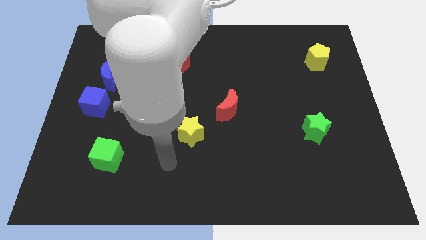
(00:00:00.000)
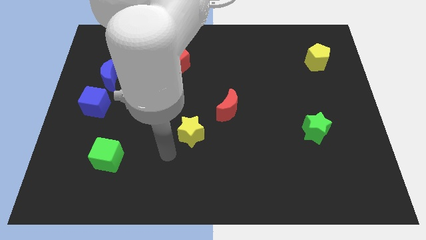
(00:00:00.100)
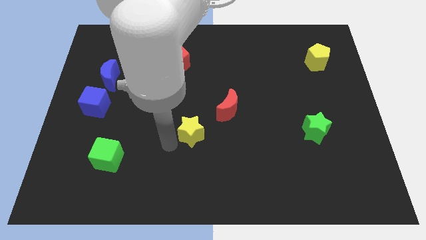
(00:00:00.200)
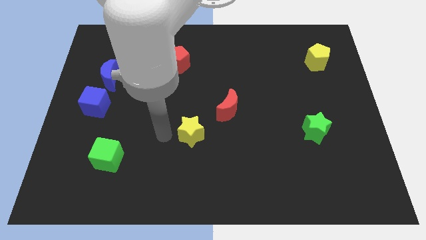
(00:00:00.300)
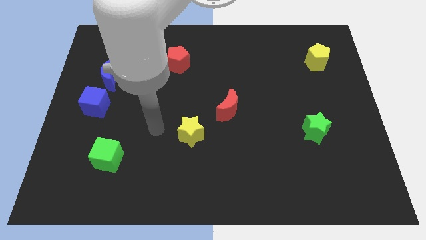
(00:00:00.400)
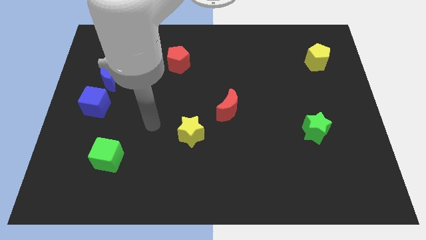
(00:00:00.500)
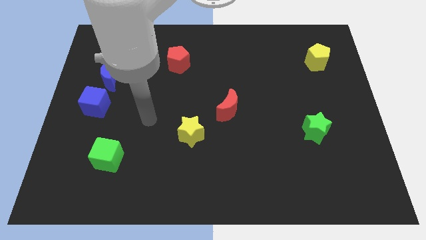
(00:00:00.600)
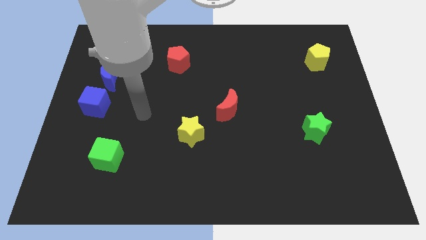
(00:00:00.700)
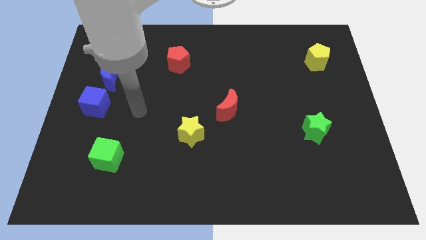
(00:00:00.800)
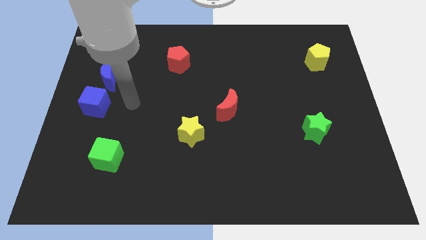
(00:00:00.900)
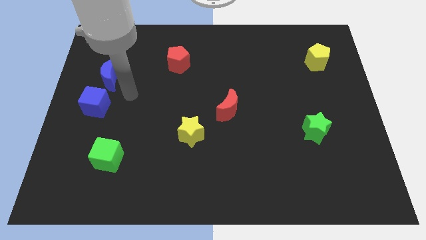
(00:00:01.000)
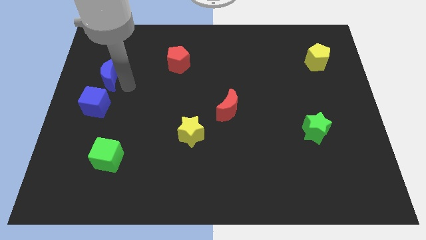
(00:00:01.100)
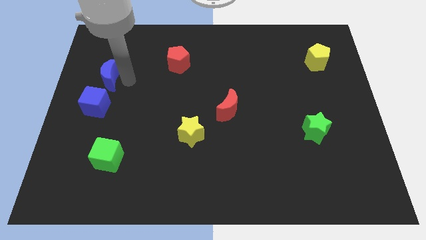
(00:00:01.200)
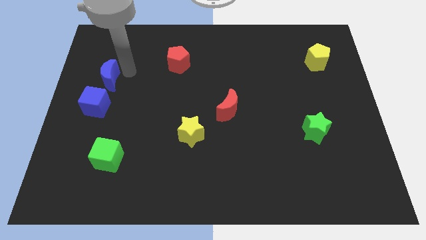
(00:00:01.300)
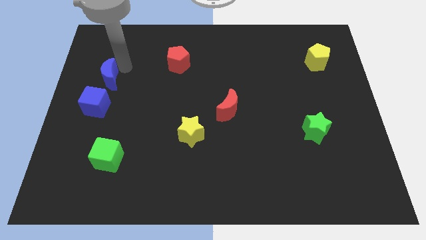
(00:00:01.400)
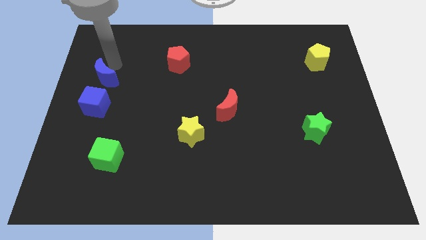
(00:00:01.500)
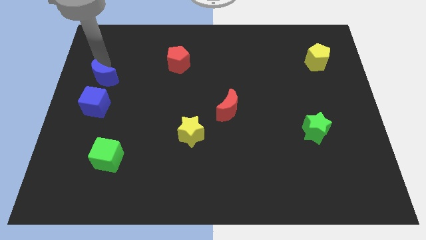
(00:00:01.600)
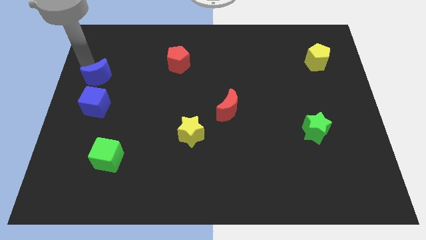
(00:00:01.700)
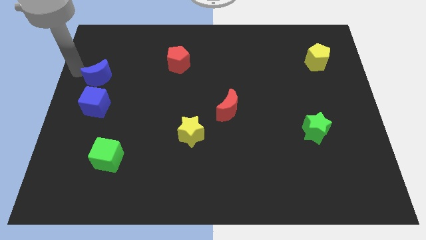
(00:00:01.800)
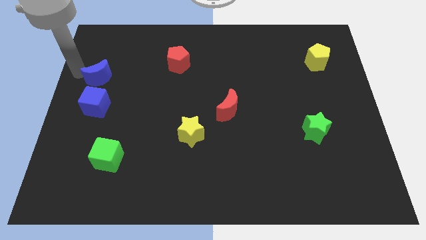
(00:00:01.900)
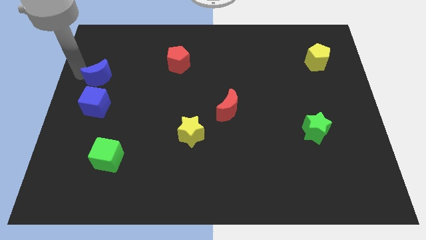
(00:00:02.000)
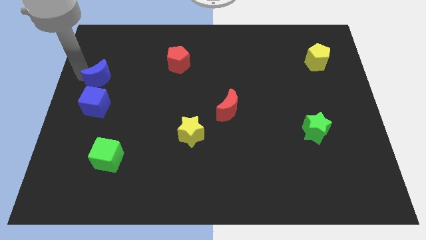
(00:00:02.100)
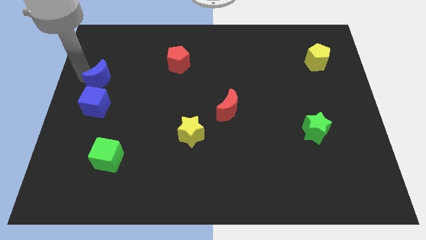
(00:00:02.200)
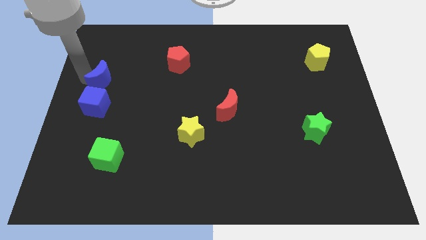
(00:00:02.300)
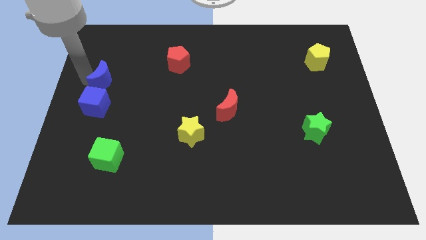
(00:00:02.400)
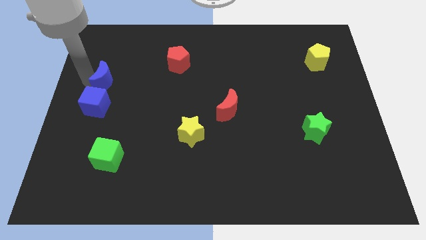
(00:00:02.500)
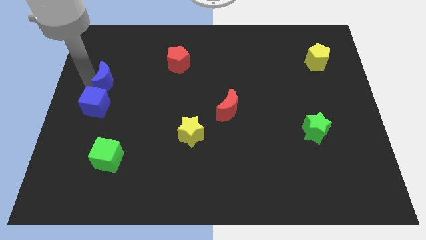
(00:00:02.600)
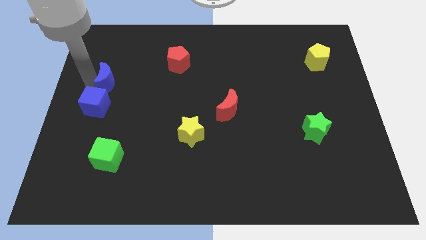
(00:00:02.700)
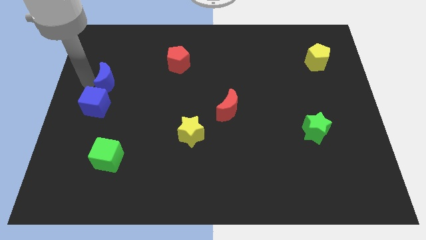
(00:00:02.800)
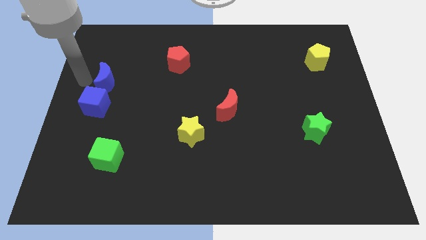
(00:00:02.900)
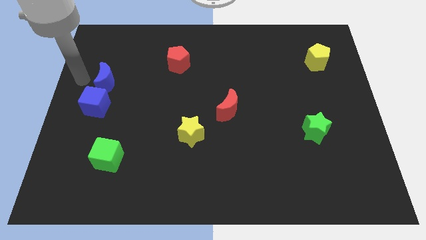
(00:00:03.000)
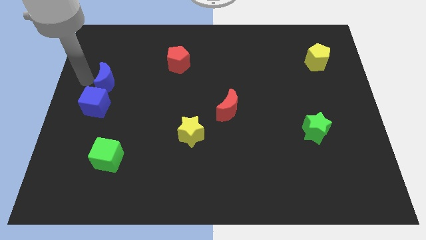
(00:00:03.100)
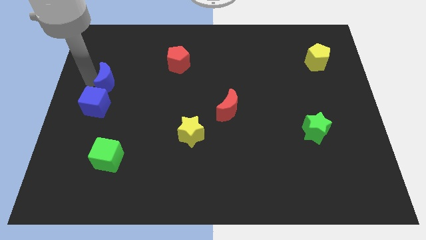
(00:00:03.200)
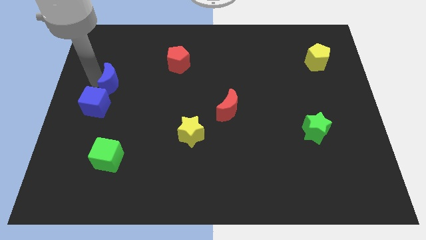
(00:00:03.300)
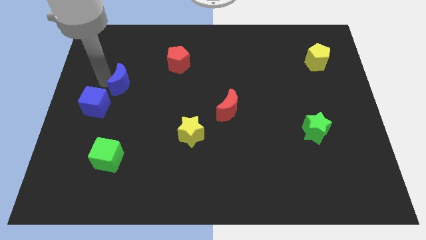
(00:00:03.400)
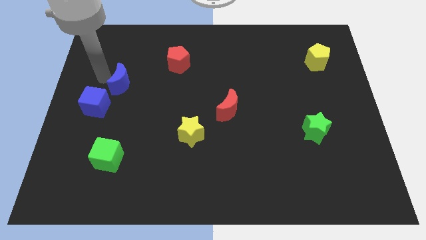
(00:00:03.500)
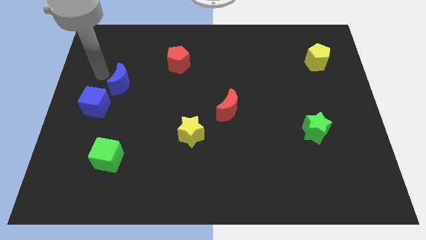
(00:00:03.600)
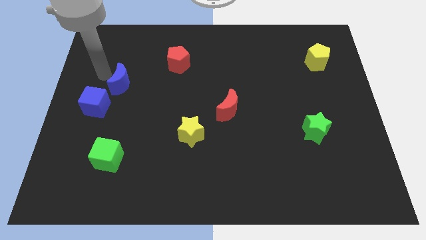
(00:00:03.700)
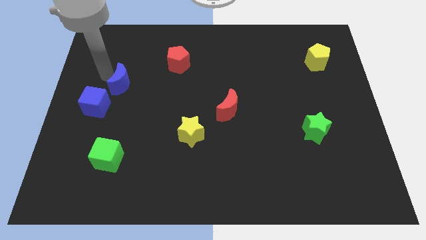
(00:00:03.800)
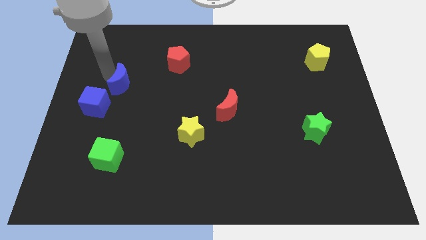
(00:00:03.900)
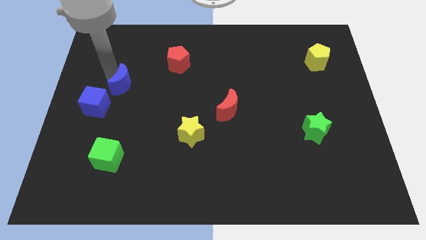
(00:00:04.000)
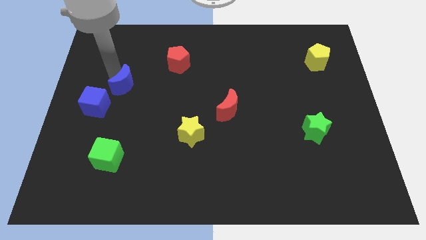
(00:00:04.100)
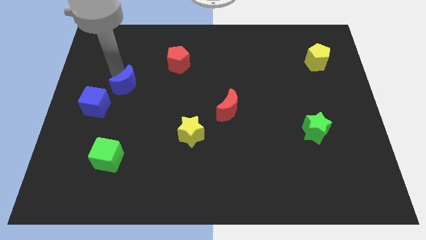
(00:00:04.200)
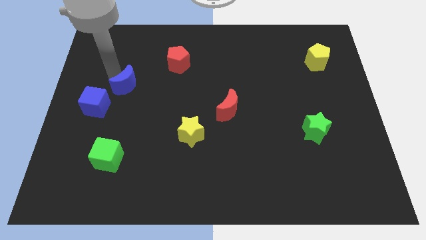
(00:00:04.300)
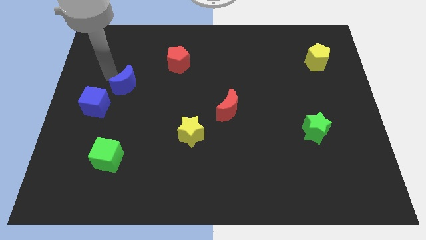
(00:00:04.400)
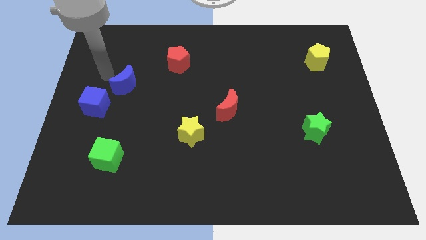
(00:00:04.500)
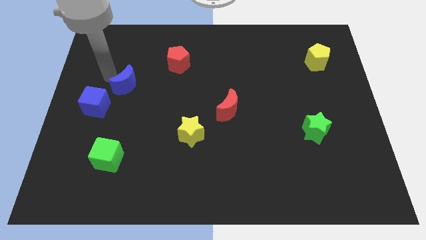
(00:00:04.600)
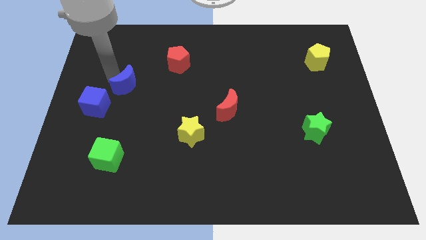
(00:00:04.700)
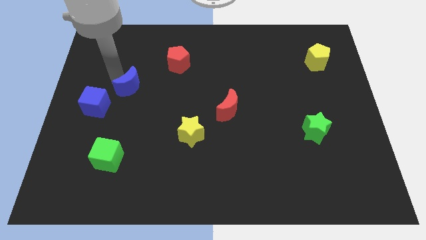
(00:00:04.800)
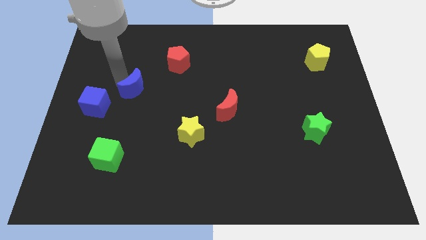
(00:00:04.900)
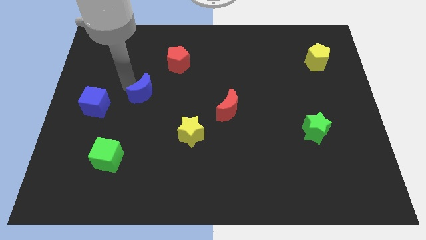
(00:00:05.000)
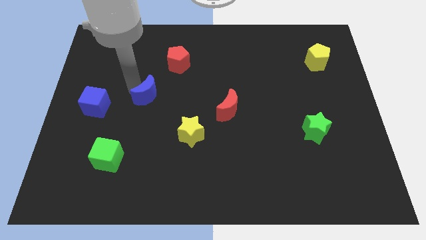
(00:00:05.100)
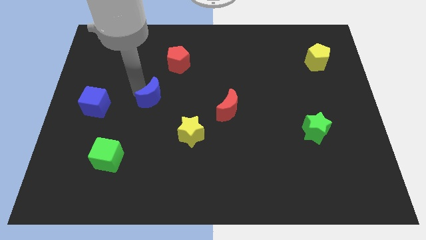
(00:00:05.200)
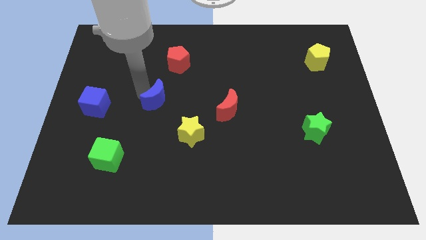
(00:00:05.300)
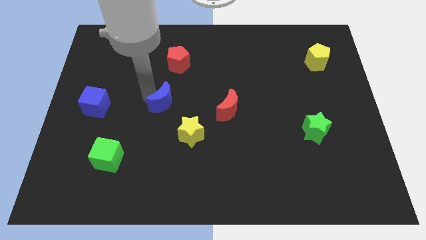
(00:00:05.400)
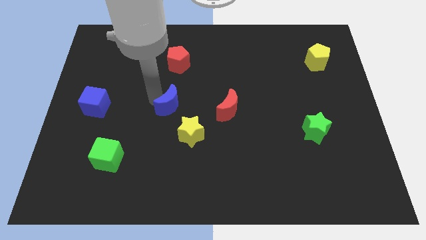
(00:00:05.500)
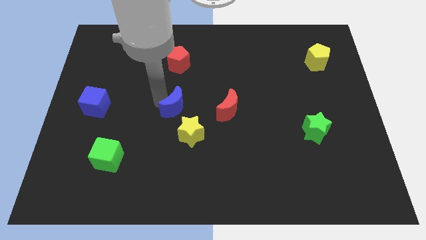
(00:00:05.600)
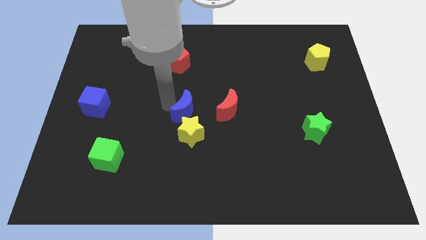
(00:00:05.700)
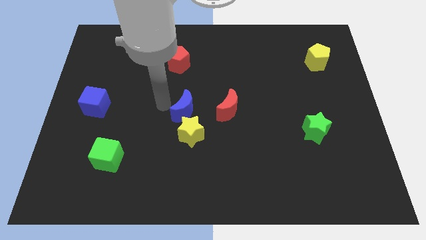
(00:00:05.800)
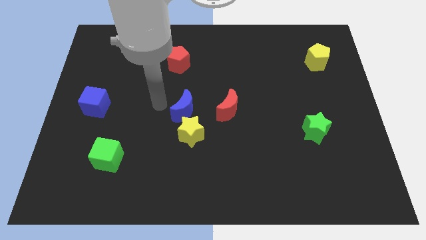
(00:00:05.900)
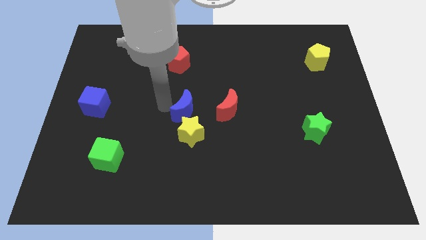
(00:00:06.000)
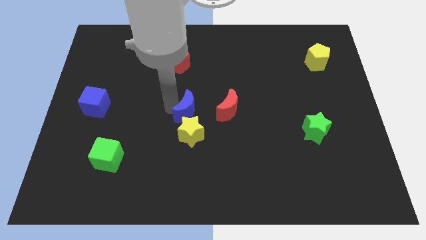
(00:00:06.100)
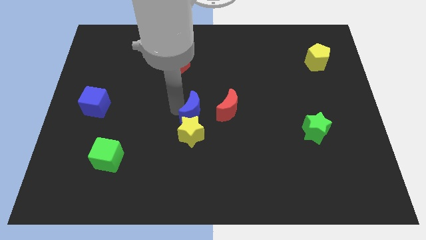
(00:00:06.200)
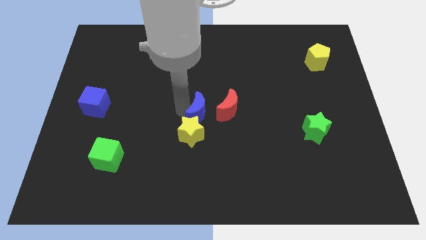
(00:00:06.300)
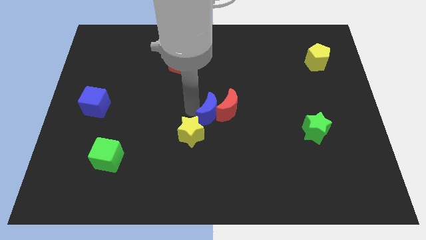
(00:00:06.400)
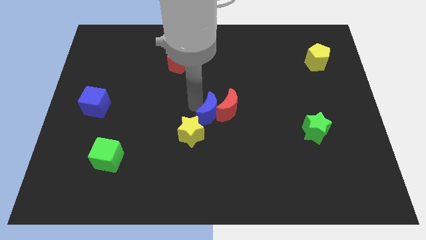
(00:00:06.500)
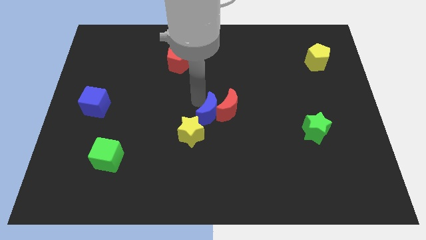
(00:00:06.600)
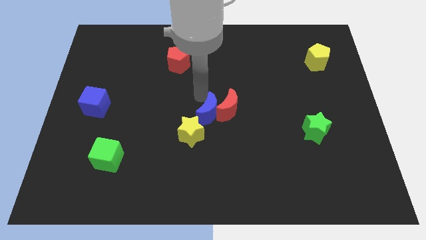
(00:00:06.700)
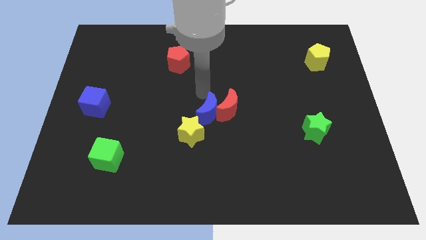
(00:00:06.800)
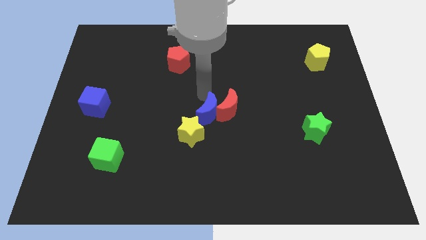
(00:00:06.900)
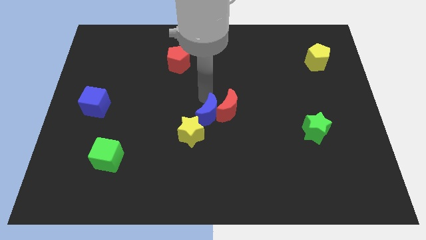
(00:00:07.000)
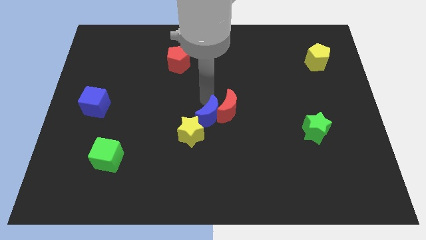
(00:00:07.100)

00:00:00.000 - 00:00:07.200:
slide the blue moon to the right of the yellow star
